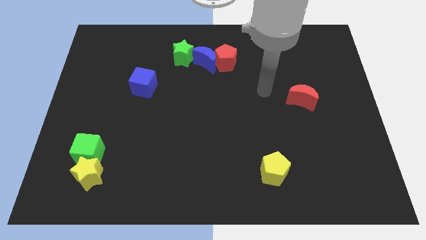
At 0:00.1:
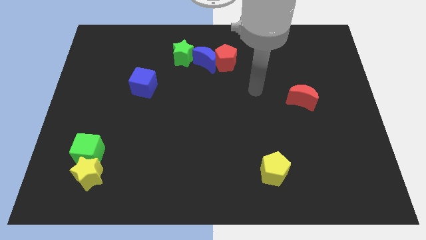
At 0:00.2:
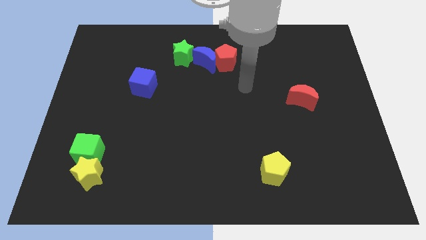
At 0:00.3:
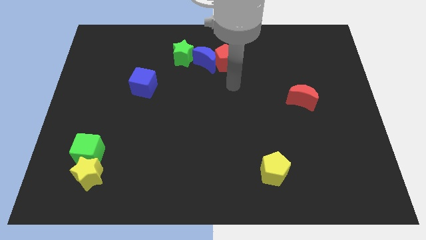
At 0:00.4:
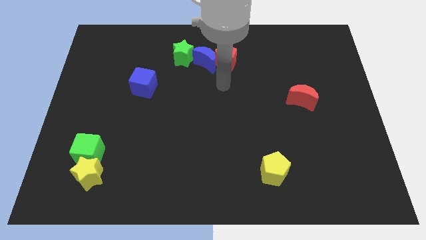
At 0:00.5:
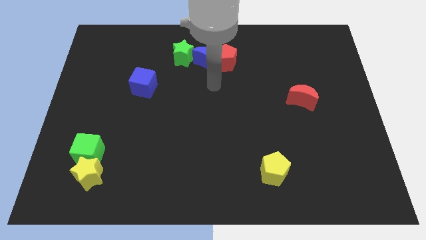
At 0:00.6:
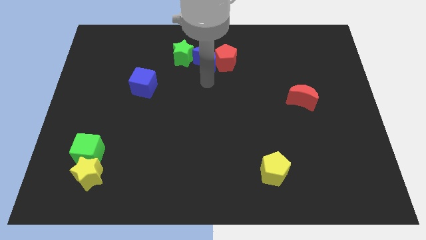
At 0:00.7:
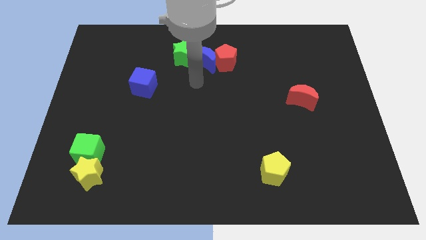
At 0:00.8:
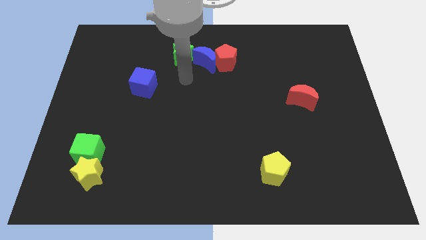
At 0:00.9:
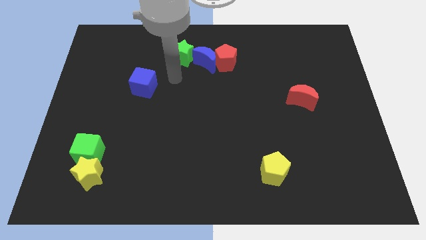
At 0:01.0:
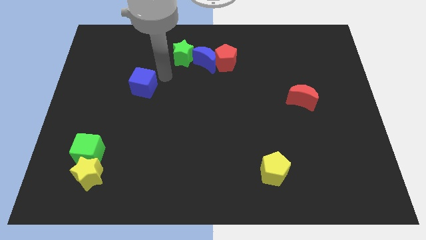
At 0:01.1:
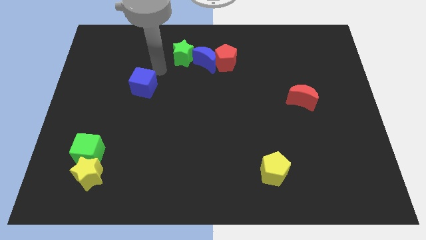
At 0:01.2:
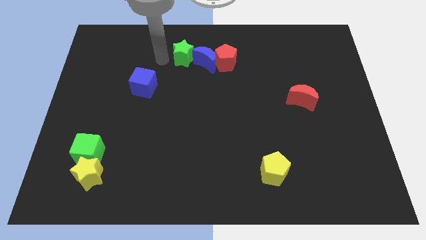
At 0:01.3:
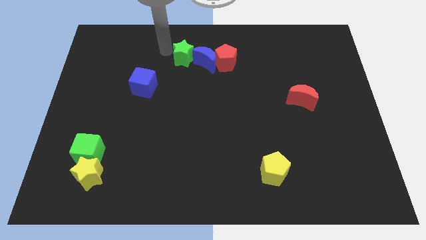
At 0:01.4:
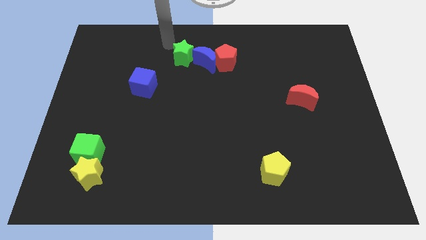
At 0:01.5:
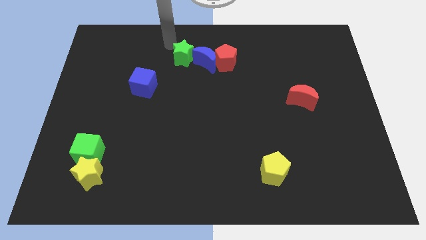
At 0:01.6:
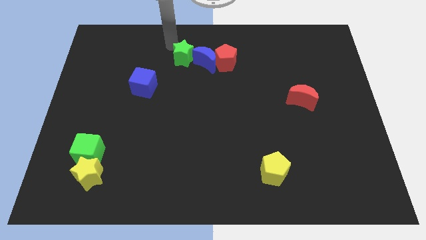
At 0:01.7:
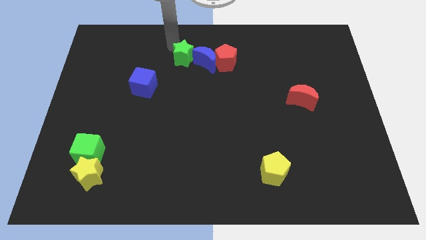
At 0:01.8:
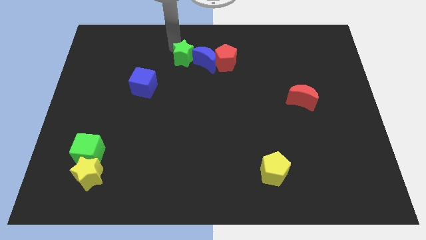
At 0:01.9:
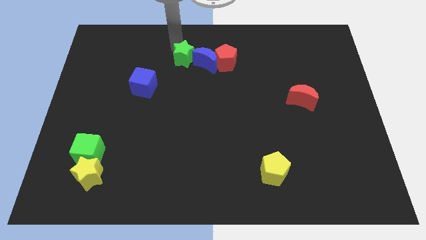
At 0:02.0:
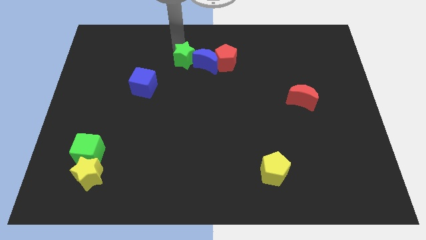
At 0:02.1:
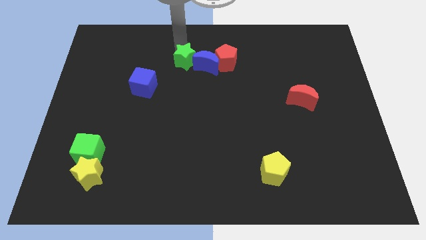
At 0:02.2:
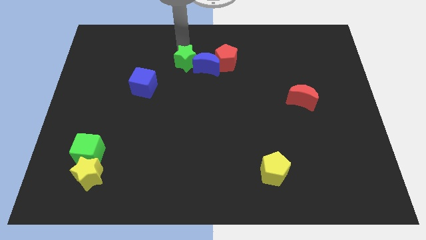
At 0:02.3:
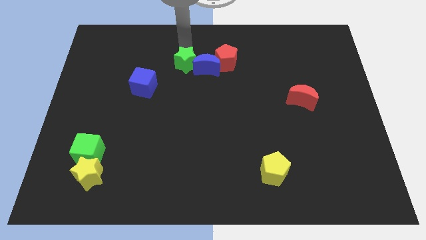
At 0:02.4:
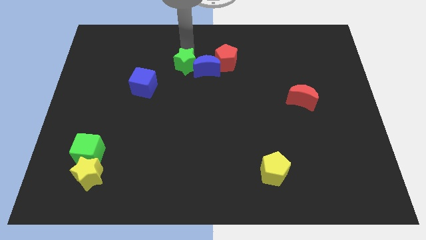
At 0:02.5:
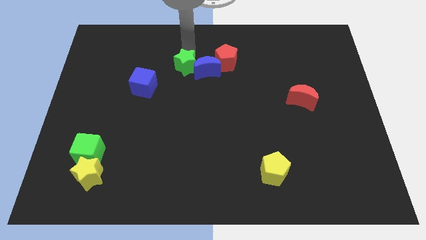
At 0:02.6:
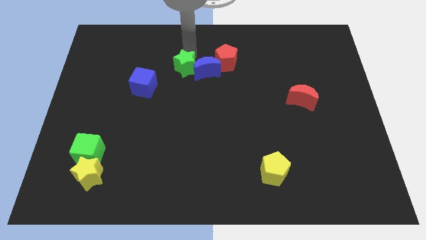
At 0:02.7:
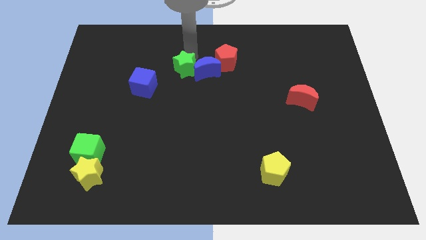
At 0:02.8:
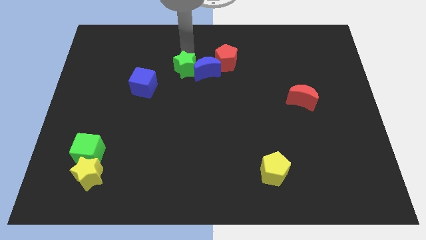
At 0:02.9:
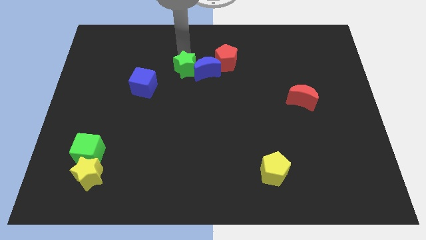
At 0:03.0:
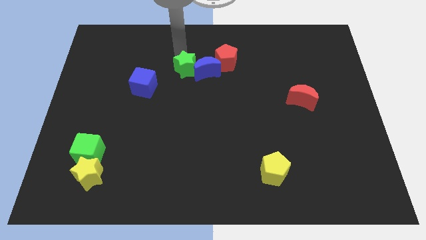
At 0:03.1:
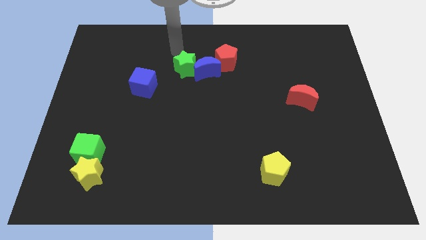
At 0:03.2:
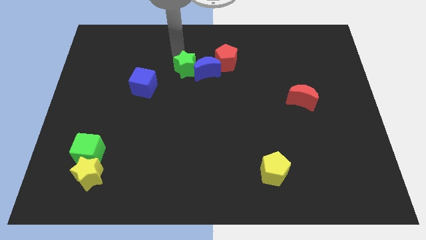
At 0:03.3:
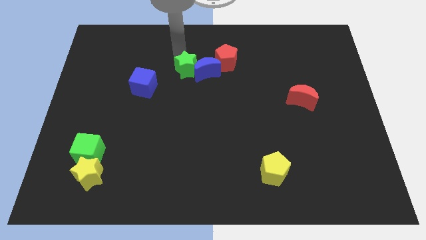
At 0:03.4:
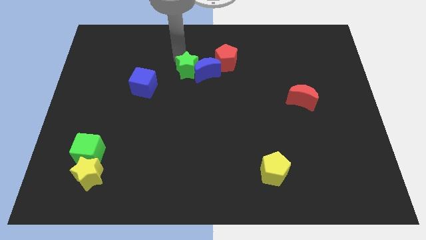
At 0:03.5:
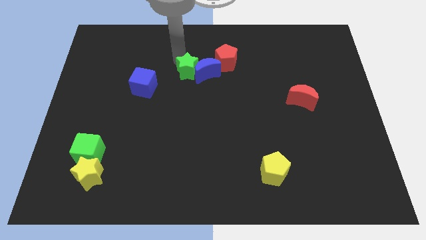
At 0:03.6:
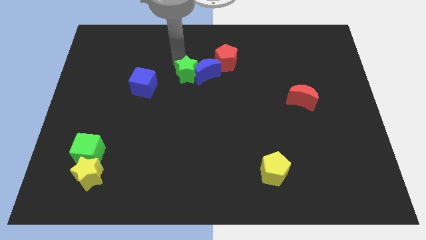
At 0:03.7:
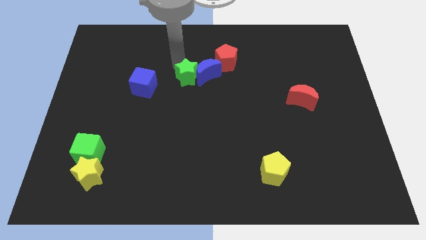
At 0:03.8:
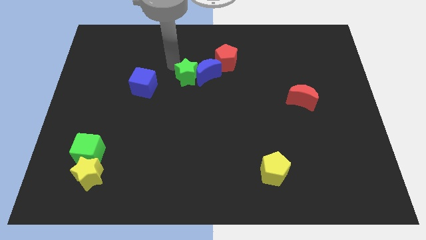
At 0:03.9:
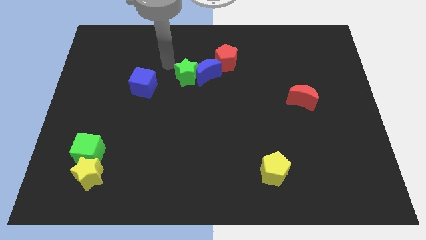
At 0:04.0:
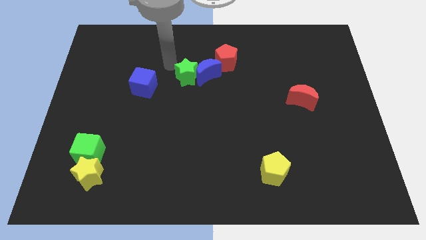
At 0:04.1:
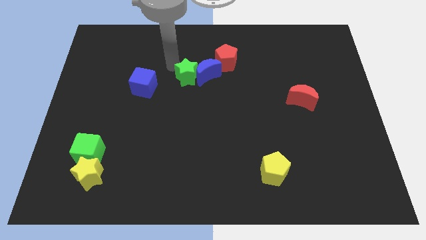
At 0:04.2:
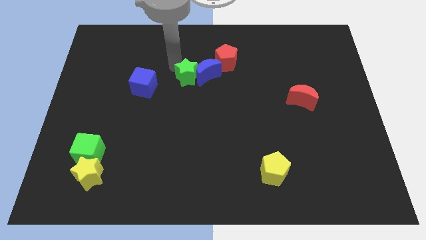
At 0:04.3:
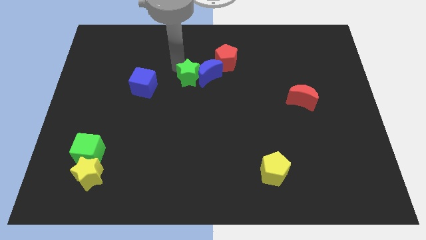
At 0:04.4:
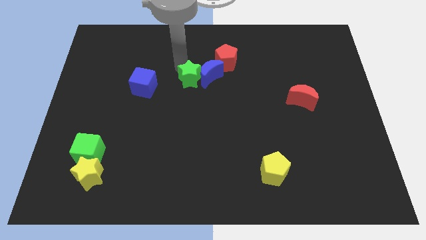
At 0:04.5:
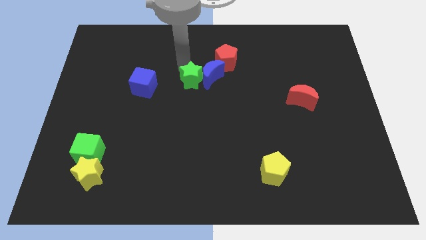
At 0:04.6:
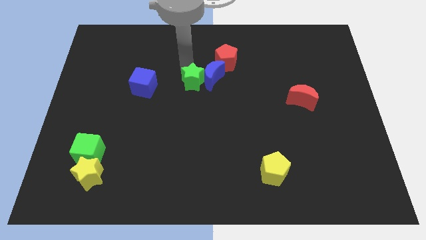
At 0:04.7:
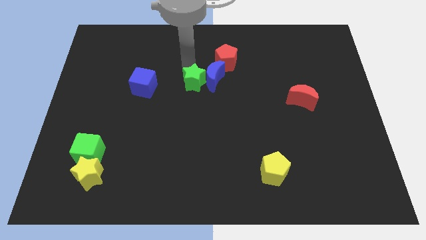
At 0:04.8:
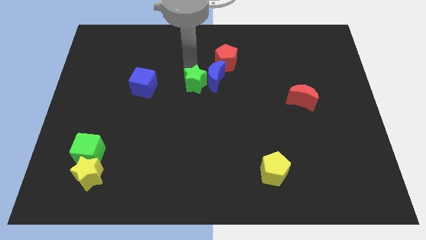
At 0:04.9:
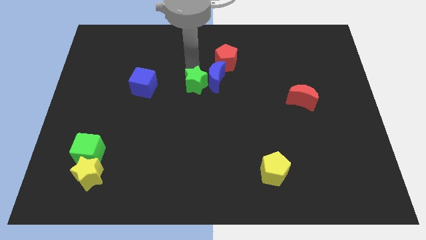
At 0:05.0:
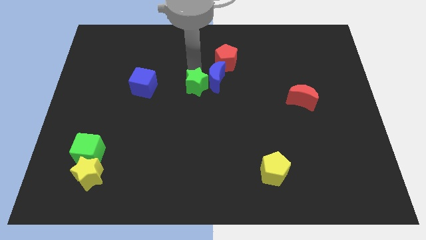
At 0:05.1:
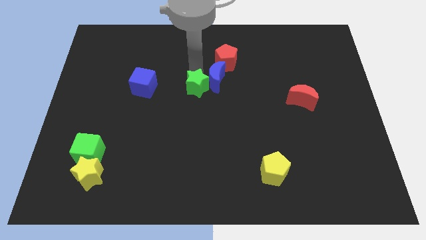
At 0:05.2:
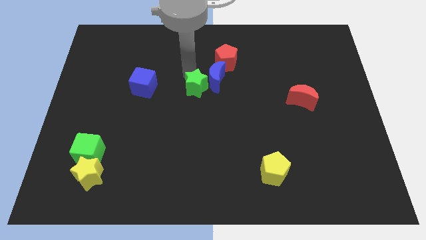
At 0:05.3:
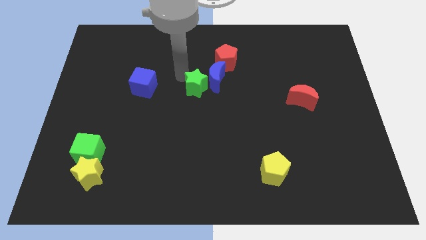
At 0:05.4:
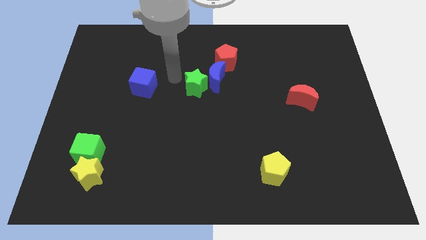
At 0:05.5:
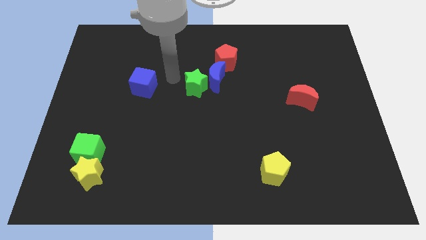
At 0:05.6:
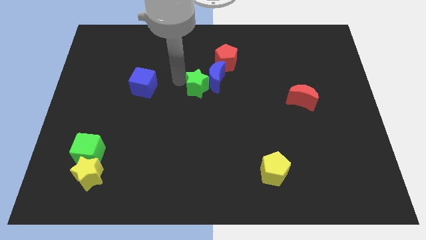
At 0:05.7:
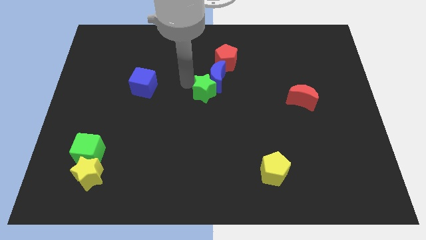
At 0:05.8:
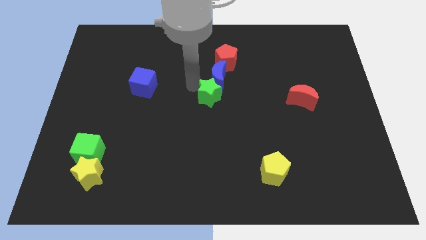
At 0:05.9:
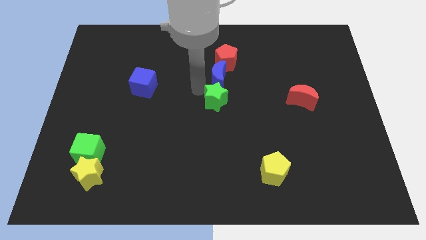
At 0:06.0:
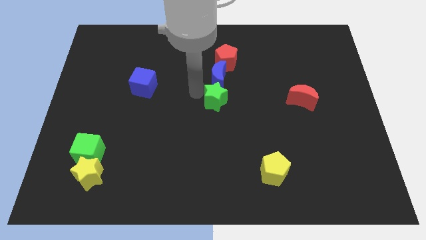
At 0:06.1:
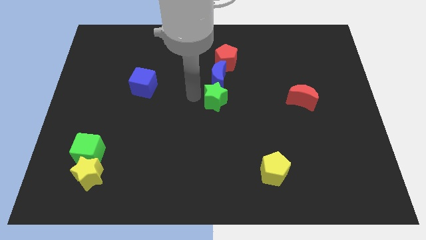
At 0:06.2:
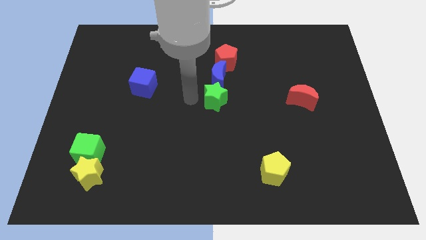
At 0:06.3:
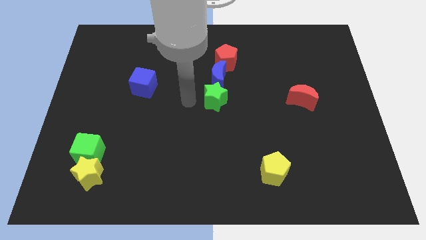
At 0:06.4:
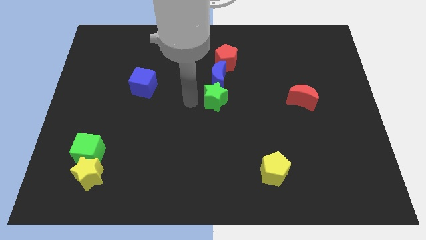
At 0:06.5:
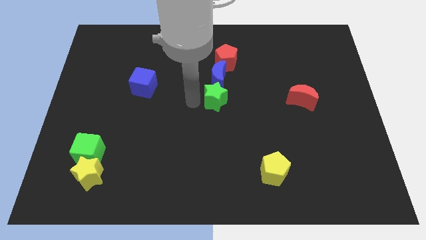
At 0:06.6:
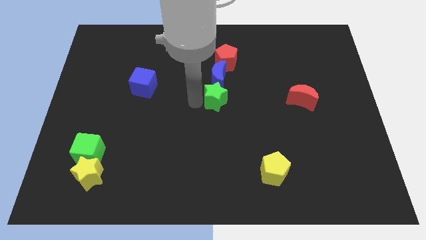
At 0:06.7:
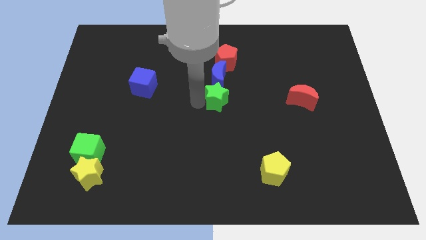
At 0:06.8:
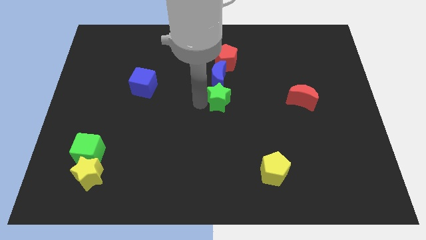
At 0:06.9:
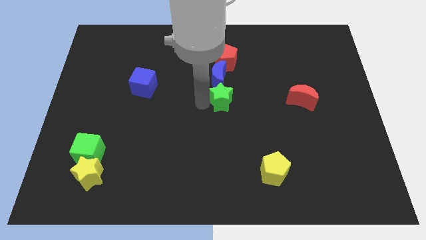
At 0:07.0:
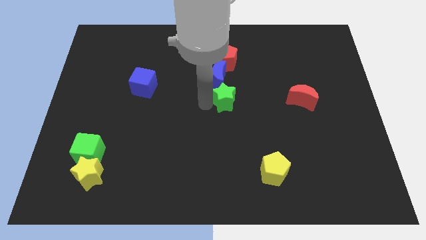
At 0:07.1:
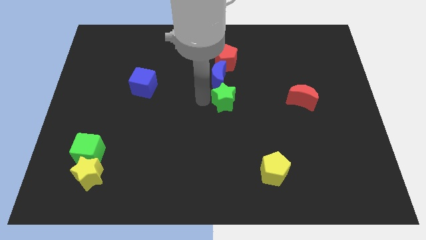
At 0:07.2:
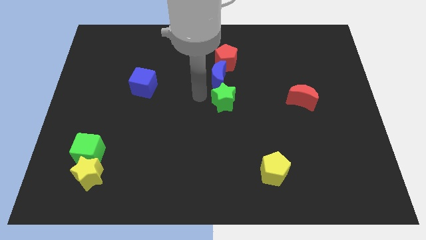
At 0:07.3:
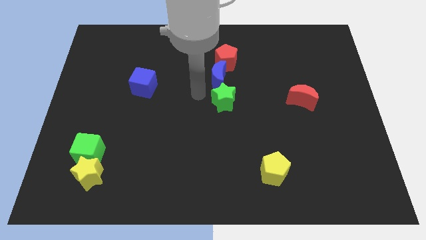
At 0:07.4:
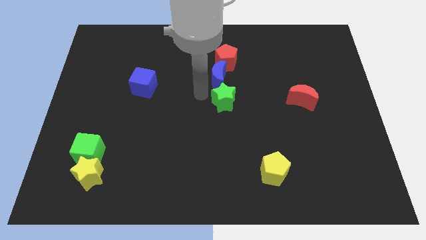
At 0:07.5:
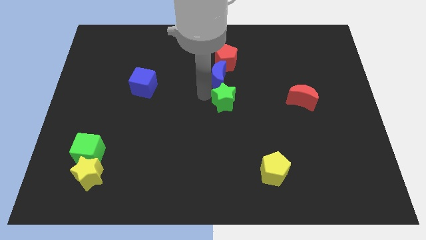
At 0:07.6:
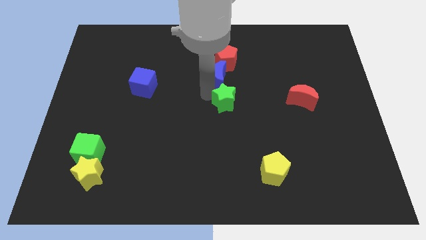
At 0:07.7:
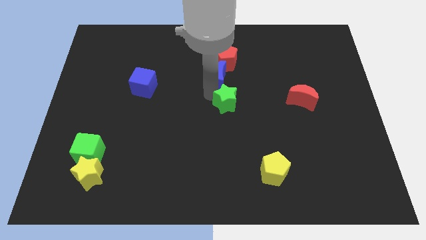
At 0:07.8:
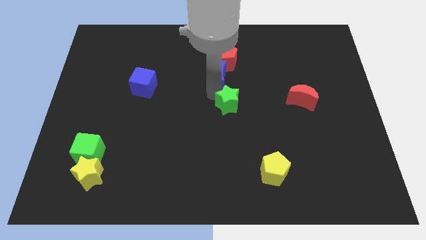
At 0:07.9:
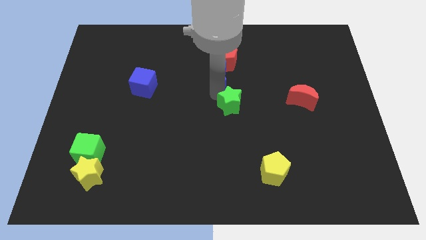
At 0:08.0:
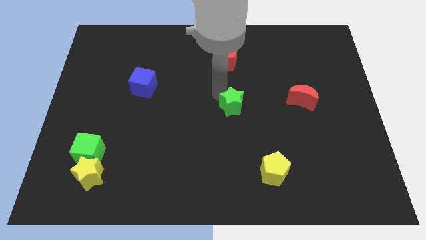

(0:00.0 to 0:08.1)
slide the green star diagonally down and to the right
